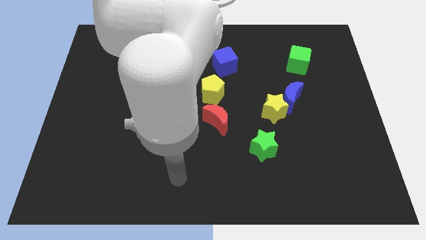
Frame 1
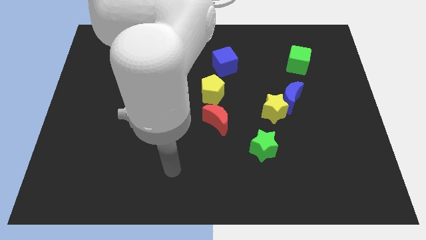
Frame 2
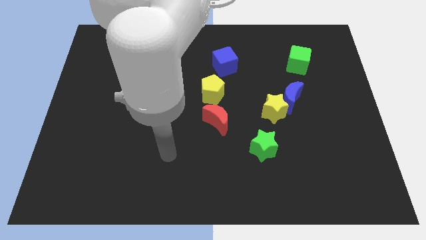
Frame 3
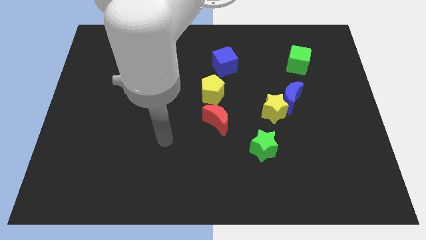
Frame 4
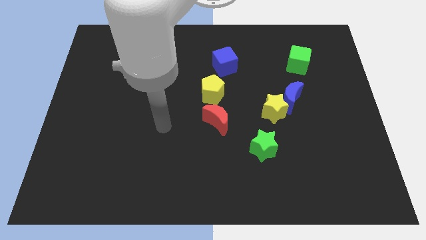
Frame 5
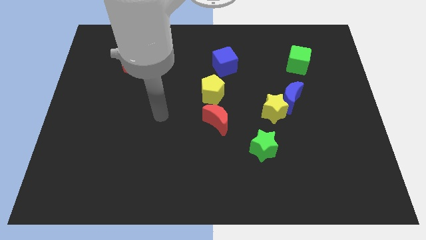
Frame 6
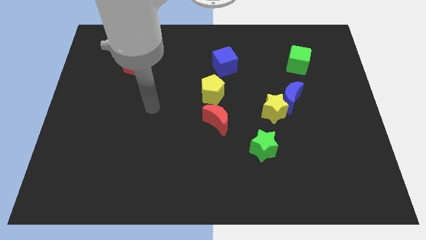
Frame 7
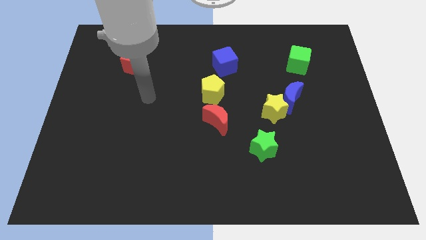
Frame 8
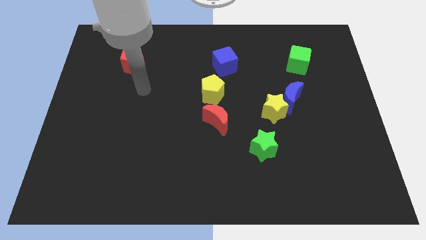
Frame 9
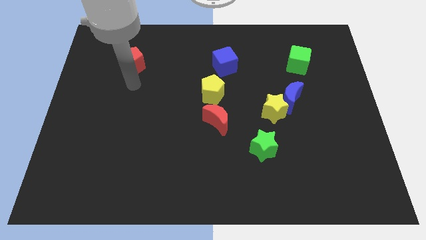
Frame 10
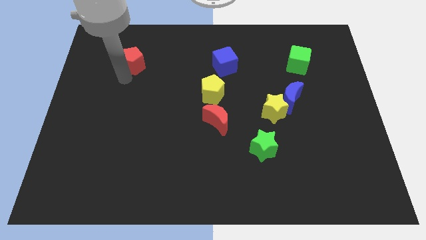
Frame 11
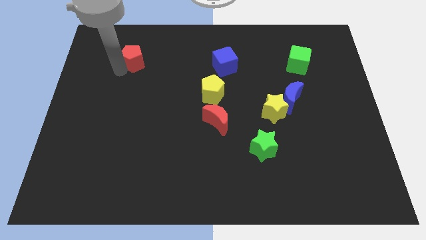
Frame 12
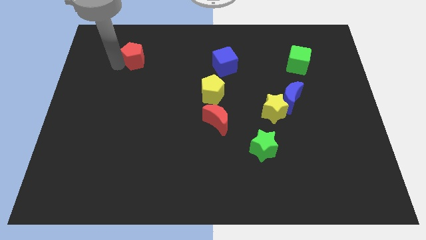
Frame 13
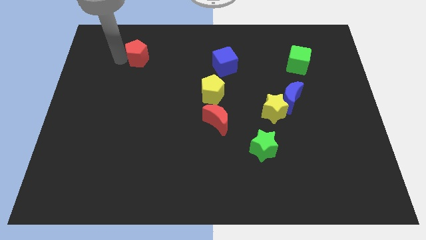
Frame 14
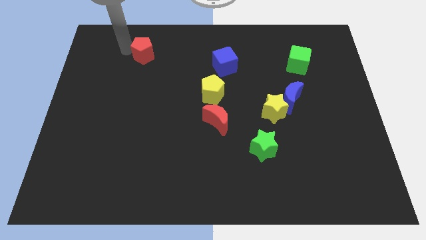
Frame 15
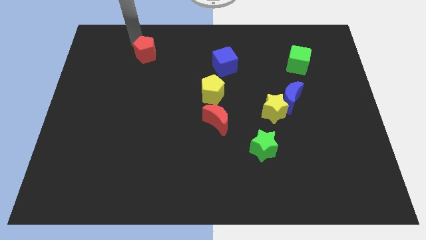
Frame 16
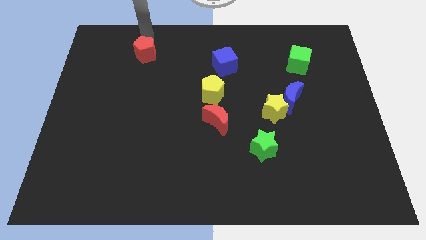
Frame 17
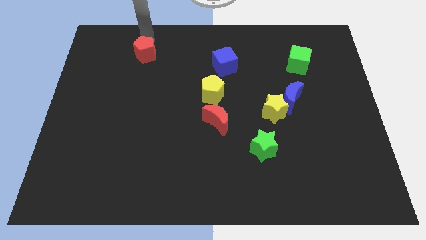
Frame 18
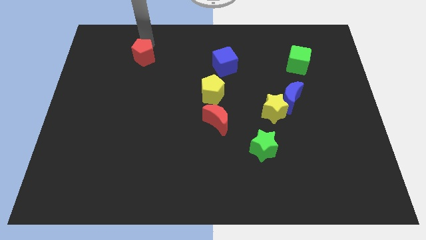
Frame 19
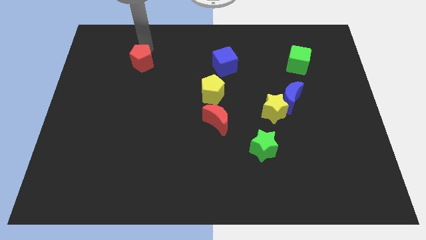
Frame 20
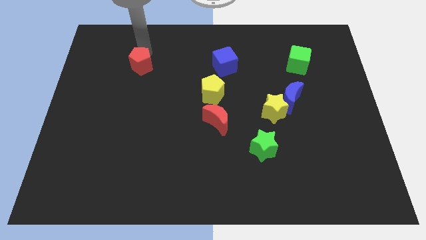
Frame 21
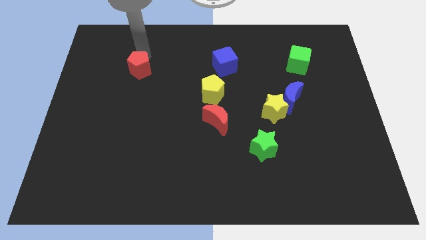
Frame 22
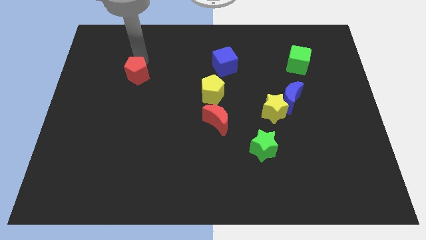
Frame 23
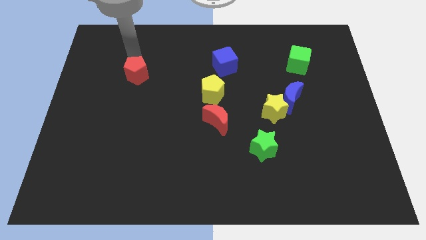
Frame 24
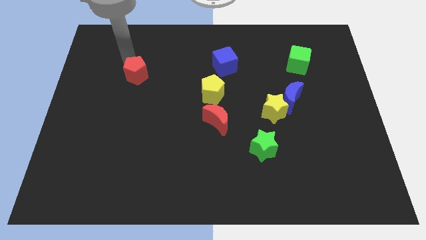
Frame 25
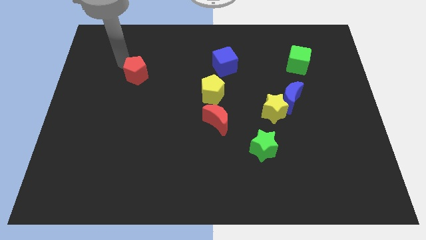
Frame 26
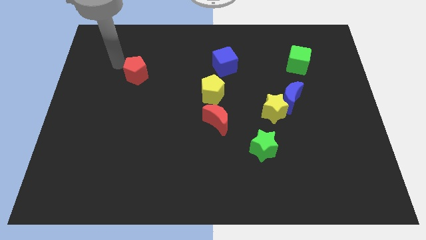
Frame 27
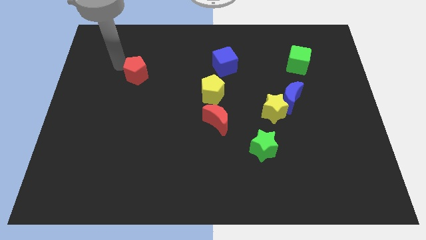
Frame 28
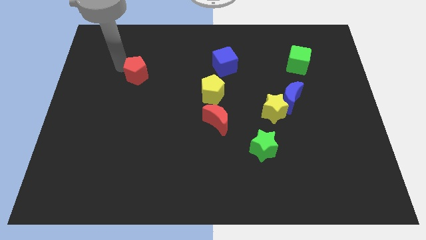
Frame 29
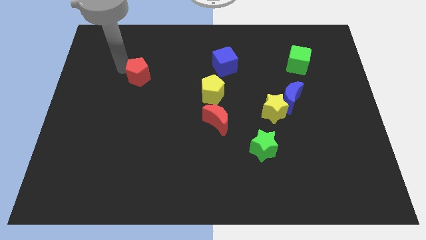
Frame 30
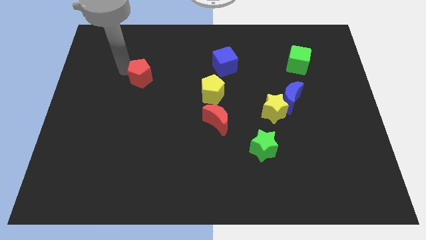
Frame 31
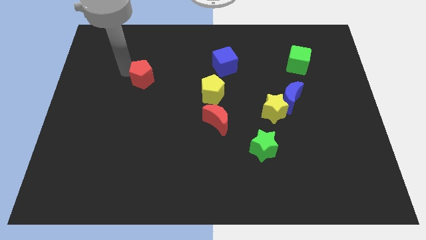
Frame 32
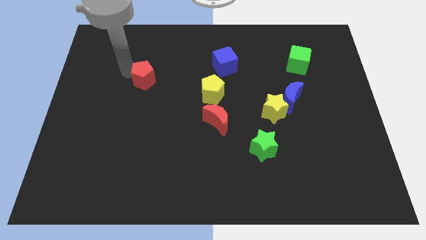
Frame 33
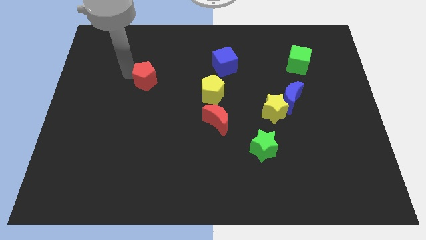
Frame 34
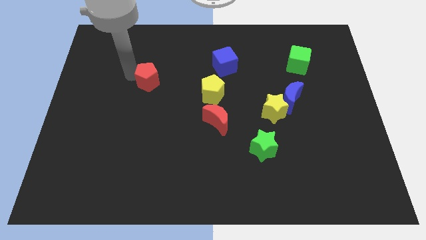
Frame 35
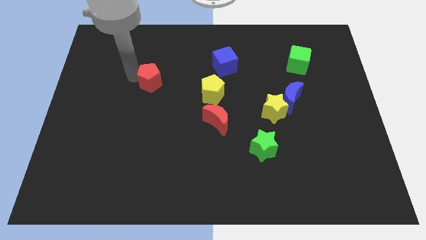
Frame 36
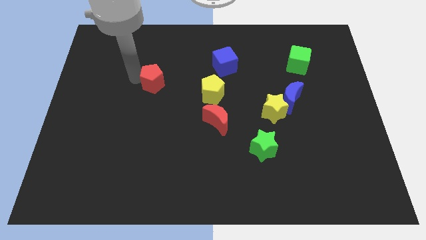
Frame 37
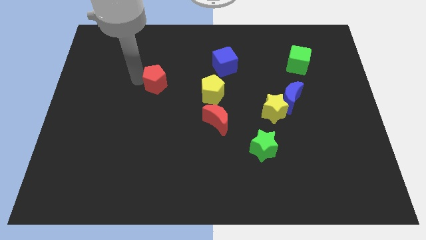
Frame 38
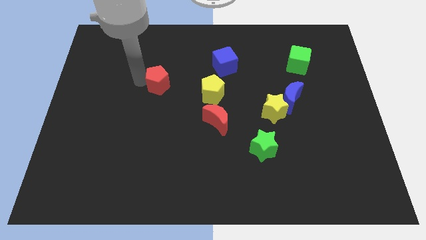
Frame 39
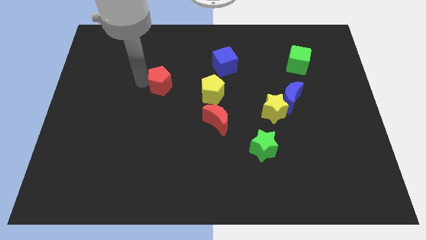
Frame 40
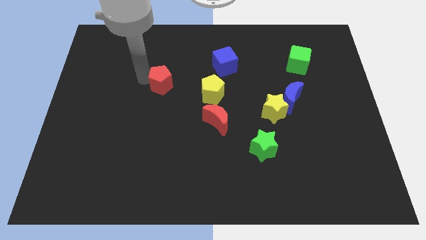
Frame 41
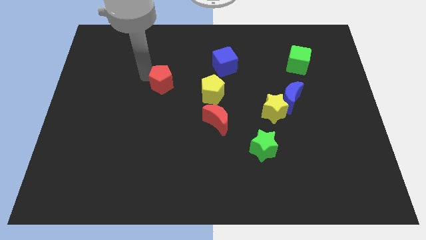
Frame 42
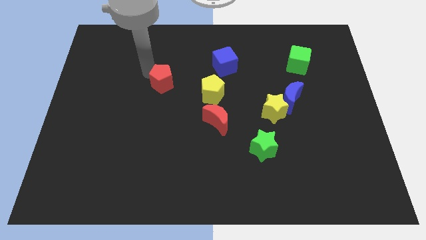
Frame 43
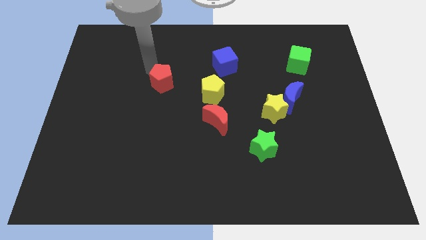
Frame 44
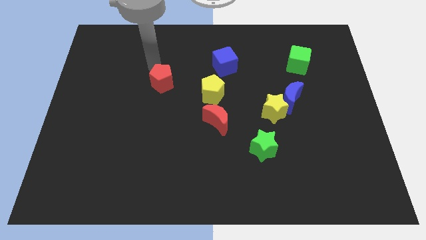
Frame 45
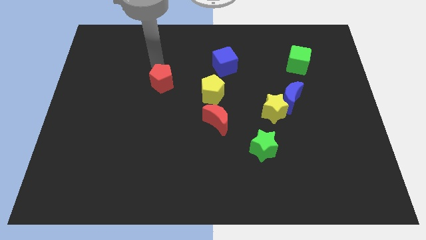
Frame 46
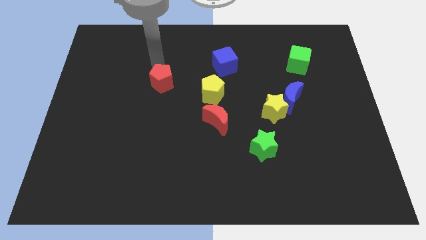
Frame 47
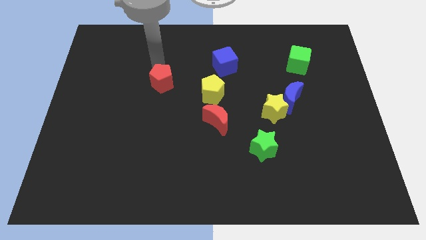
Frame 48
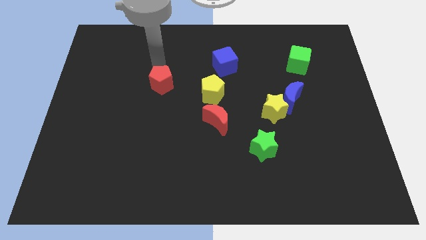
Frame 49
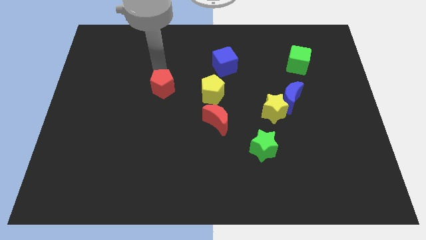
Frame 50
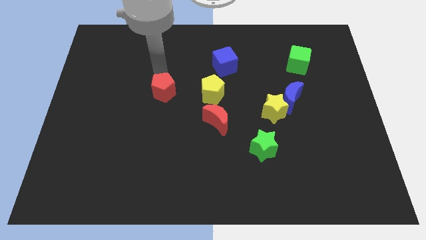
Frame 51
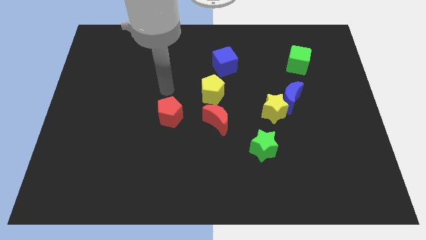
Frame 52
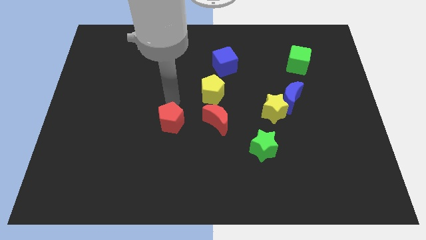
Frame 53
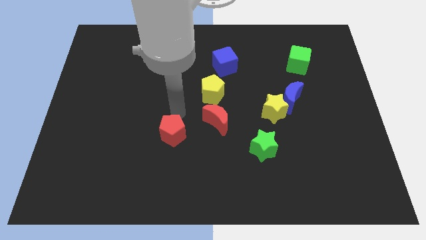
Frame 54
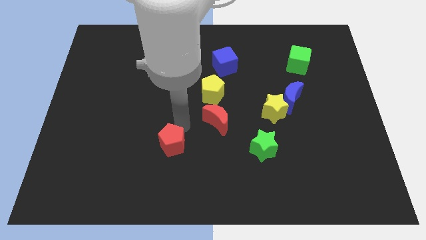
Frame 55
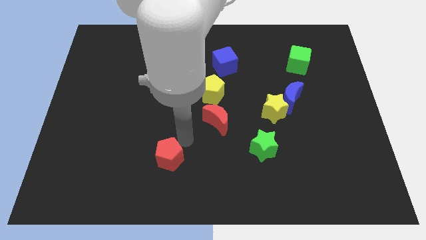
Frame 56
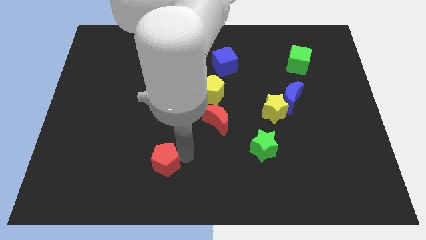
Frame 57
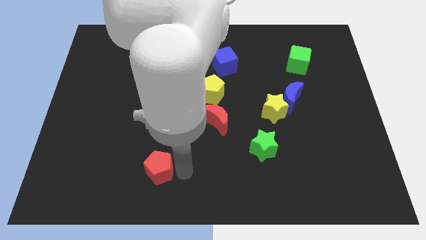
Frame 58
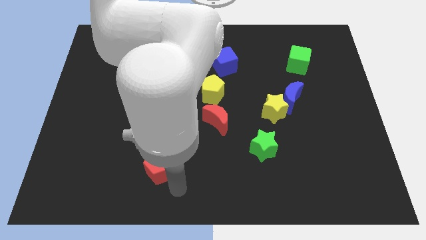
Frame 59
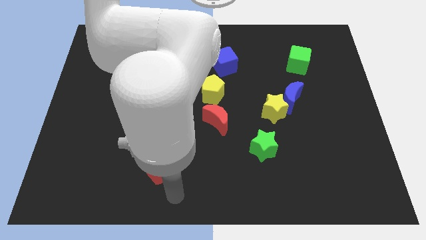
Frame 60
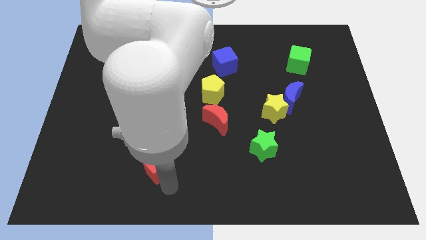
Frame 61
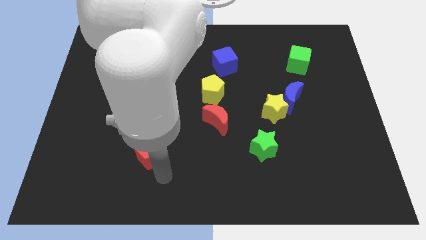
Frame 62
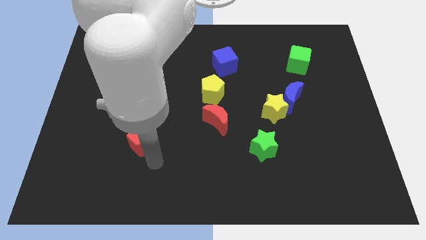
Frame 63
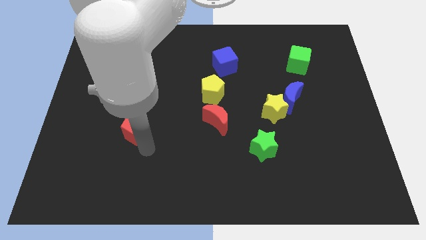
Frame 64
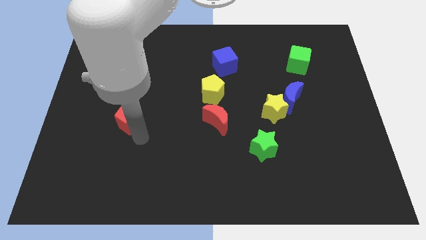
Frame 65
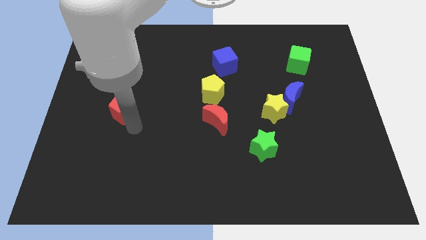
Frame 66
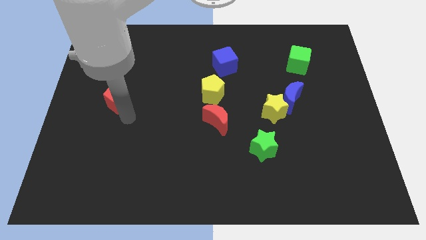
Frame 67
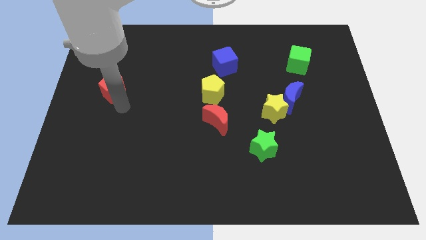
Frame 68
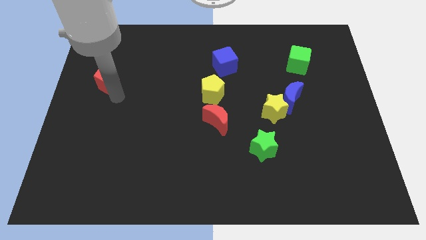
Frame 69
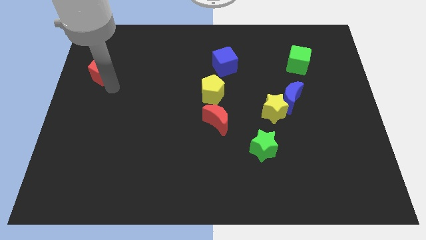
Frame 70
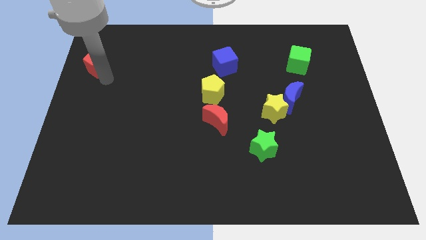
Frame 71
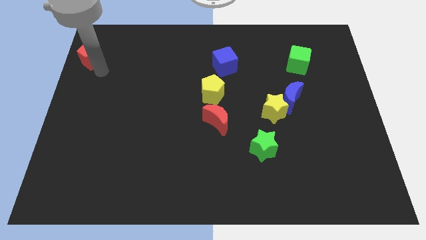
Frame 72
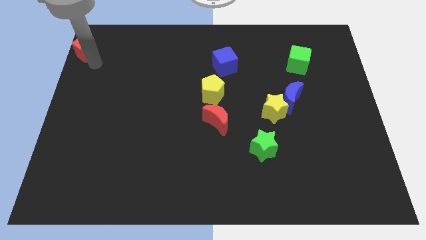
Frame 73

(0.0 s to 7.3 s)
move the red pentagon to the upper left corner
